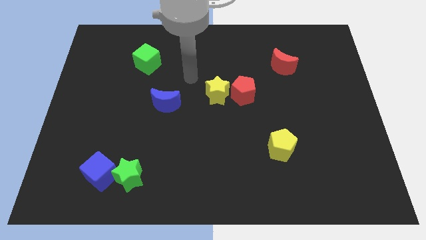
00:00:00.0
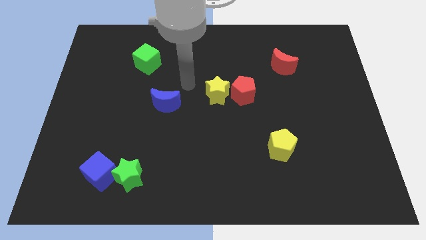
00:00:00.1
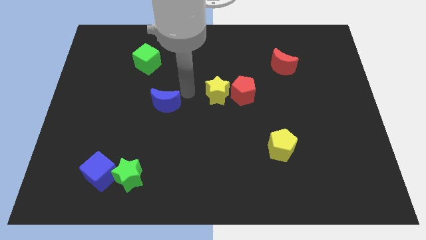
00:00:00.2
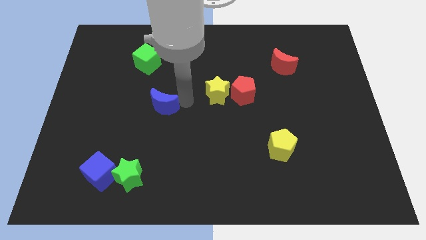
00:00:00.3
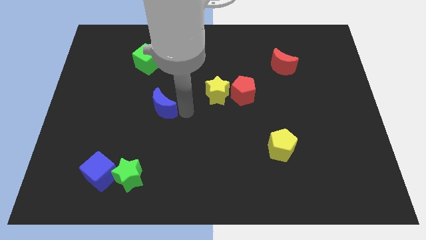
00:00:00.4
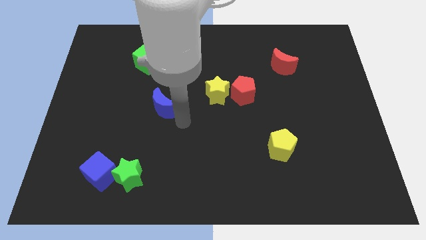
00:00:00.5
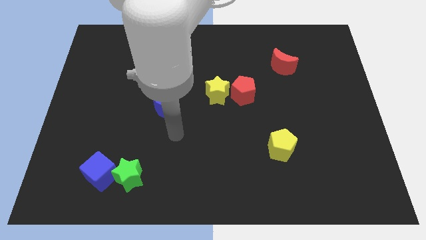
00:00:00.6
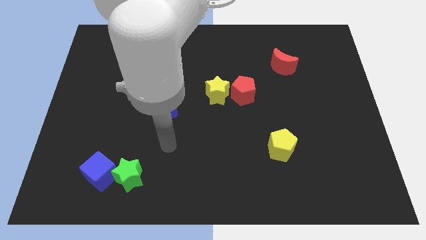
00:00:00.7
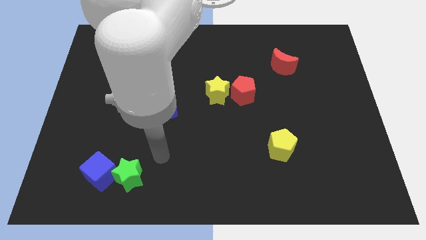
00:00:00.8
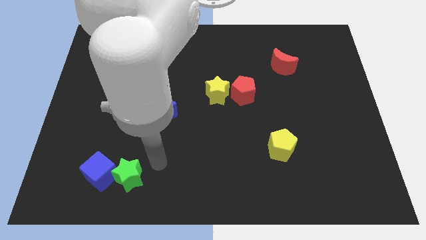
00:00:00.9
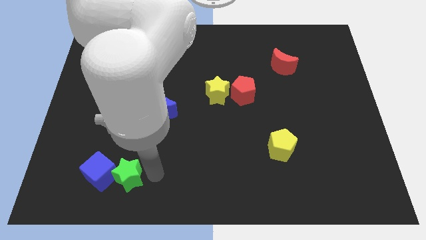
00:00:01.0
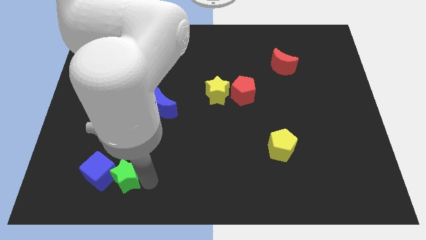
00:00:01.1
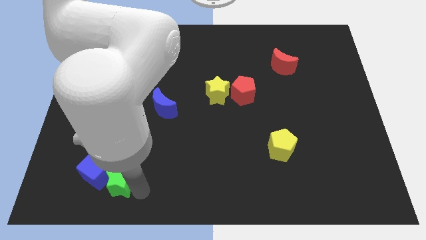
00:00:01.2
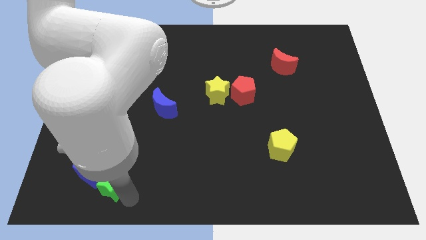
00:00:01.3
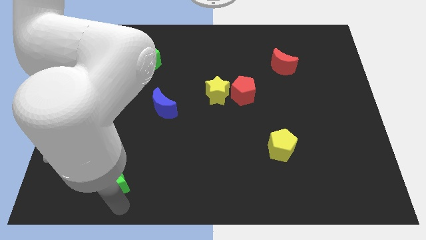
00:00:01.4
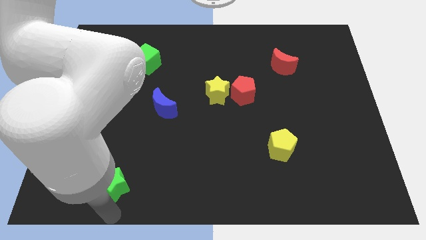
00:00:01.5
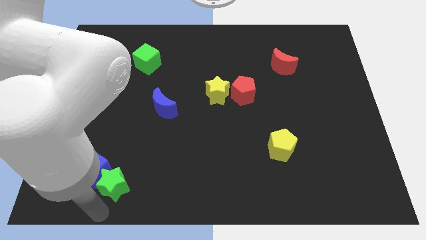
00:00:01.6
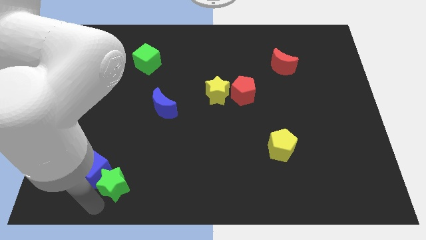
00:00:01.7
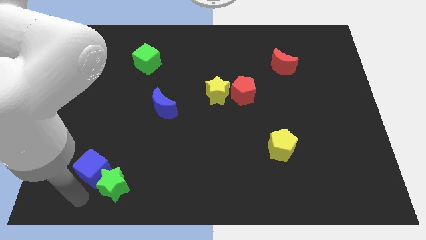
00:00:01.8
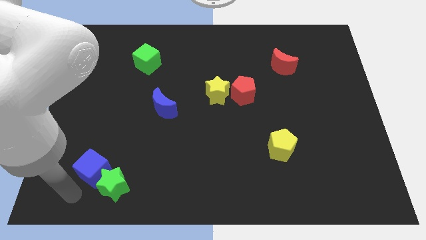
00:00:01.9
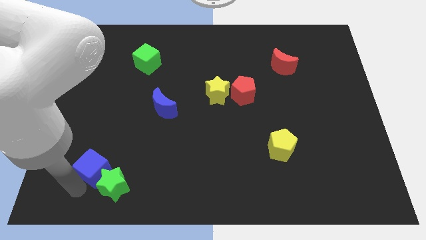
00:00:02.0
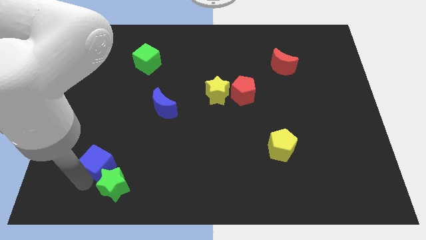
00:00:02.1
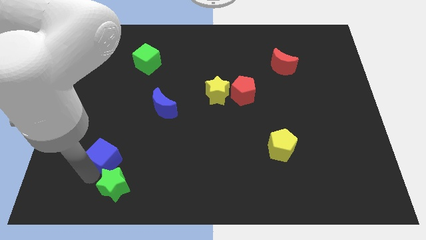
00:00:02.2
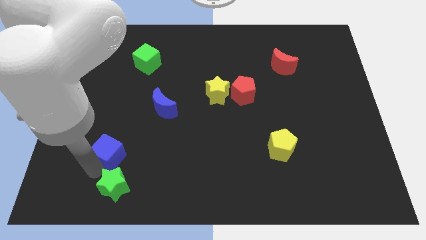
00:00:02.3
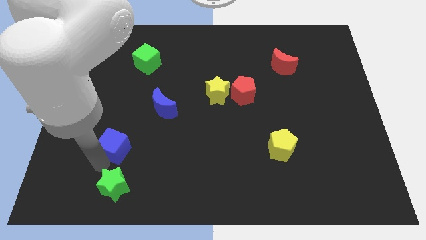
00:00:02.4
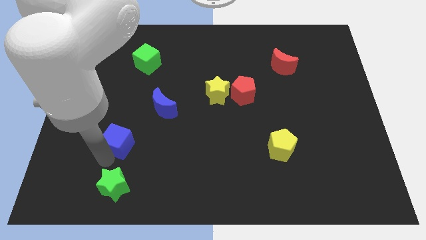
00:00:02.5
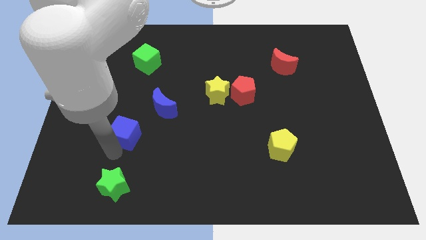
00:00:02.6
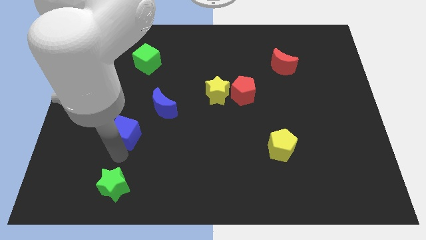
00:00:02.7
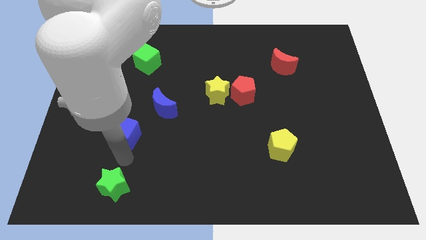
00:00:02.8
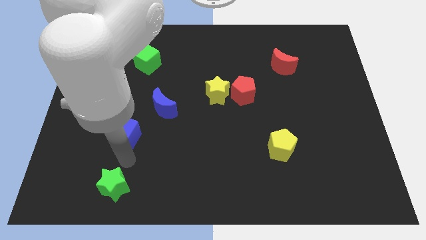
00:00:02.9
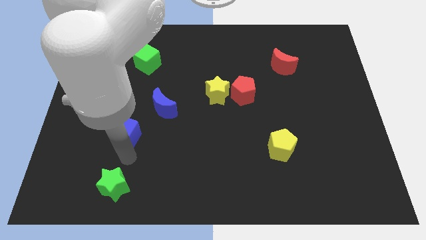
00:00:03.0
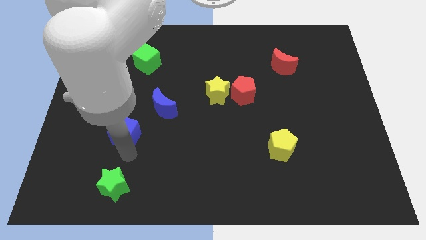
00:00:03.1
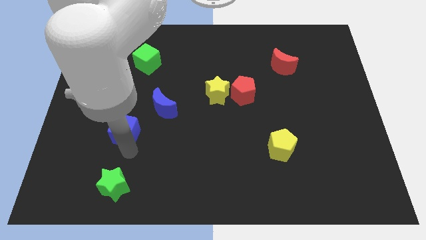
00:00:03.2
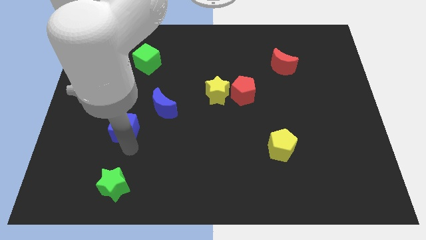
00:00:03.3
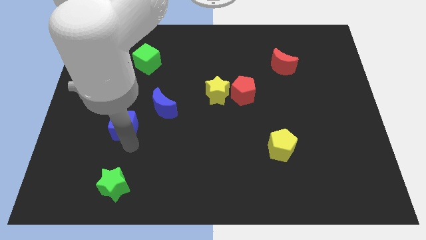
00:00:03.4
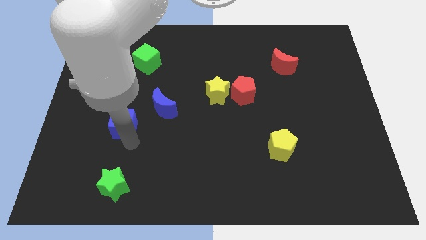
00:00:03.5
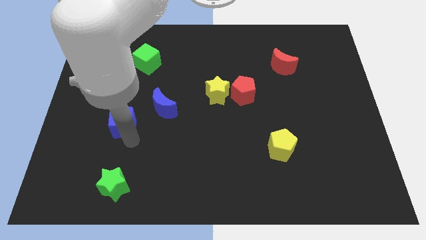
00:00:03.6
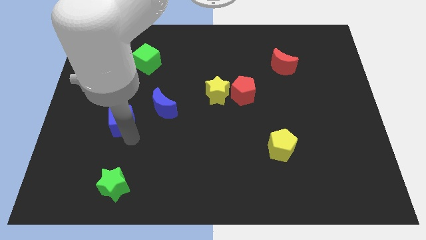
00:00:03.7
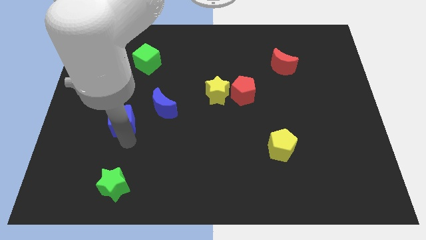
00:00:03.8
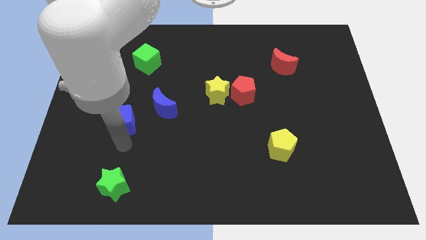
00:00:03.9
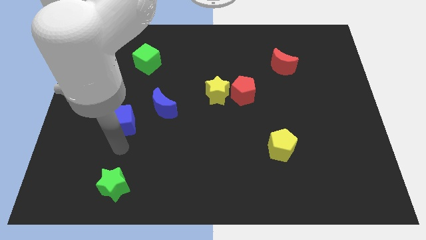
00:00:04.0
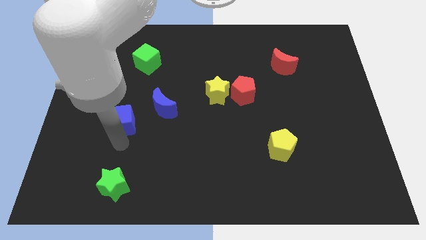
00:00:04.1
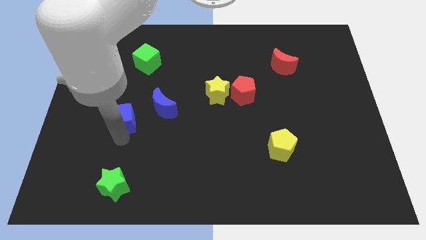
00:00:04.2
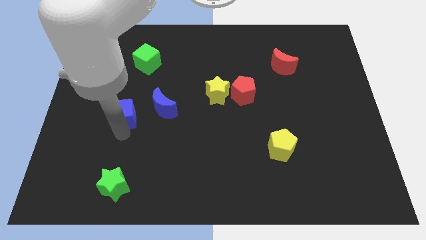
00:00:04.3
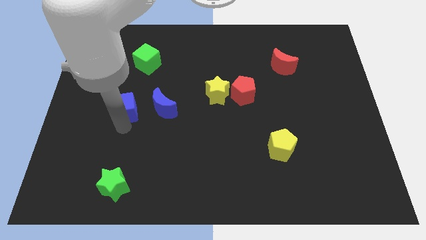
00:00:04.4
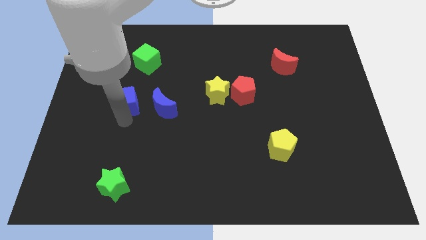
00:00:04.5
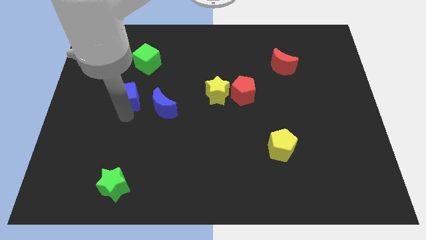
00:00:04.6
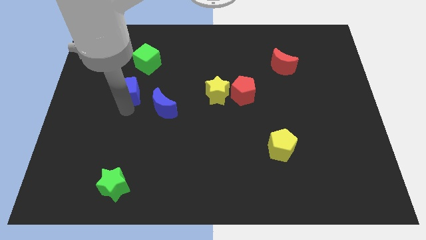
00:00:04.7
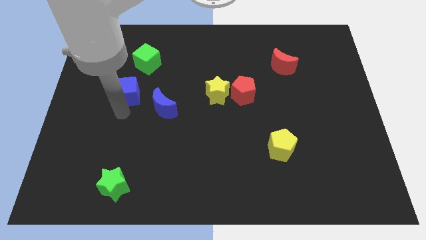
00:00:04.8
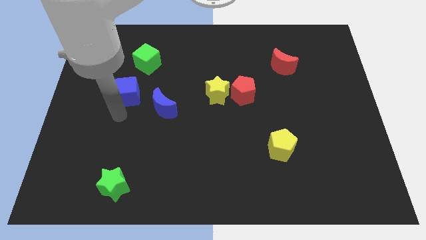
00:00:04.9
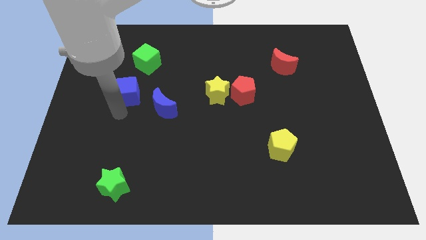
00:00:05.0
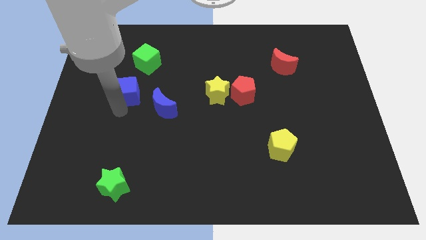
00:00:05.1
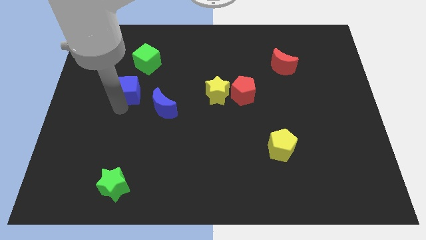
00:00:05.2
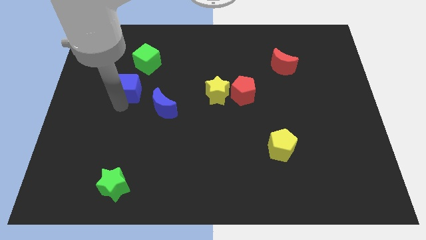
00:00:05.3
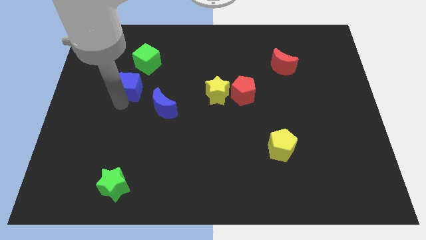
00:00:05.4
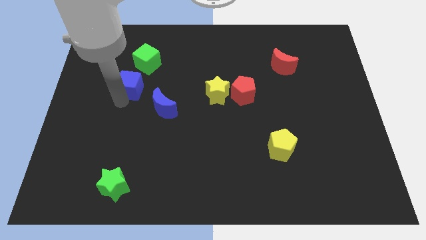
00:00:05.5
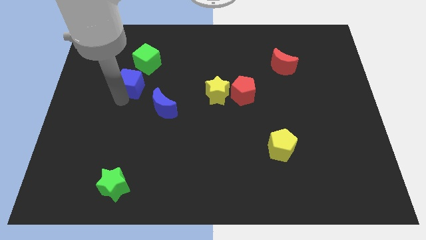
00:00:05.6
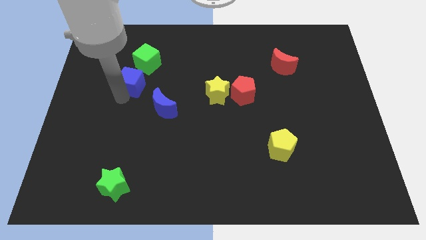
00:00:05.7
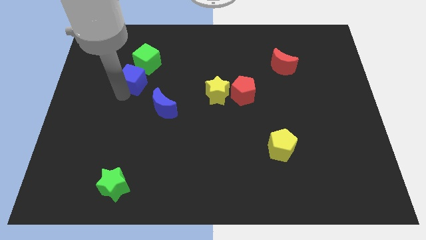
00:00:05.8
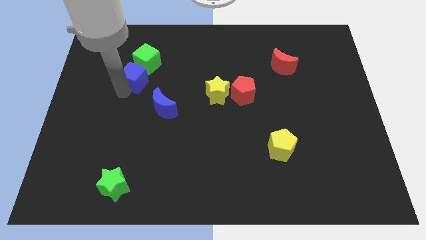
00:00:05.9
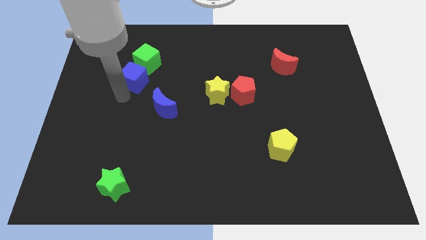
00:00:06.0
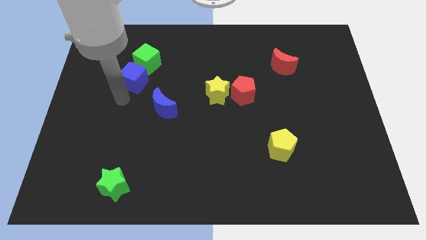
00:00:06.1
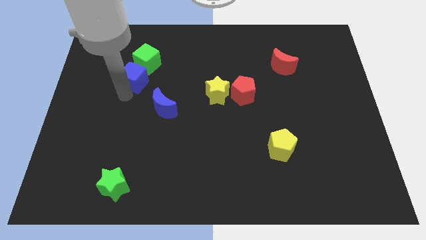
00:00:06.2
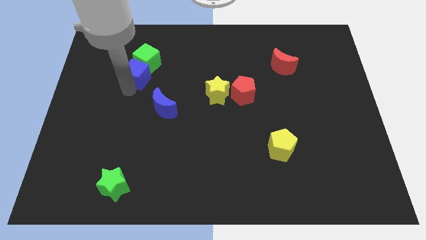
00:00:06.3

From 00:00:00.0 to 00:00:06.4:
move the blue cube close to the green cube

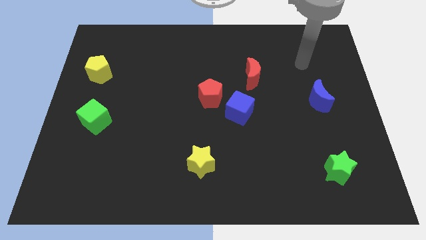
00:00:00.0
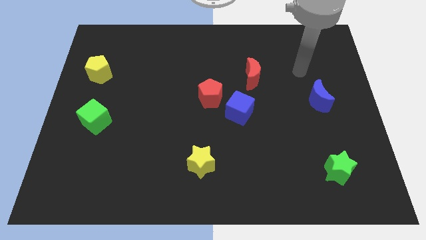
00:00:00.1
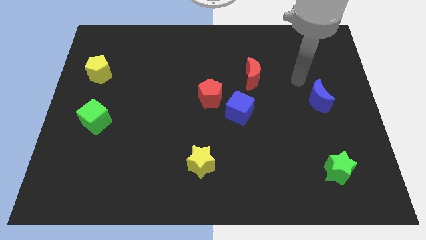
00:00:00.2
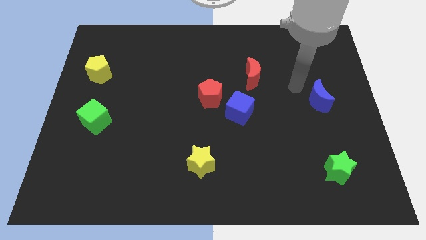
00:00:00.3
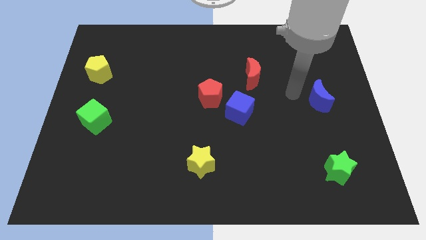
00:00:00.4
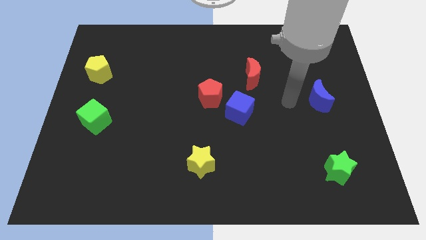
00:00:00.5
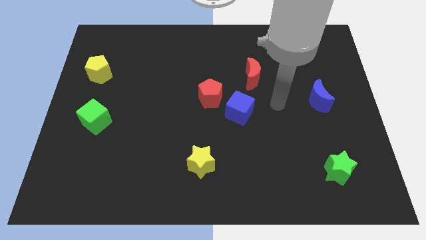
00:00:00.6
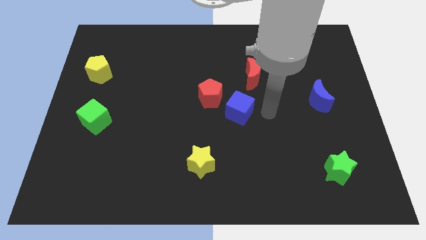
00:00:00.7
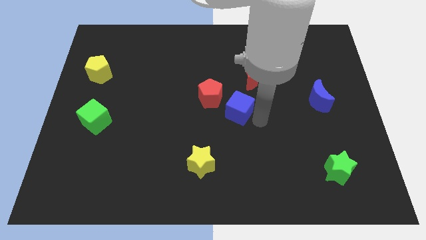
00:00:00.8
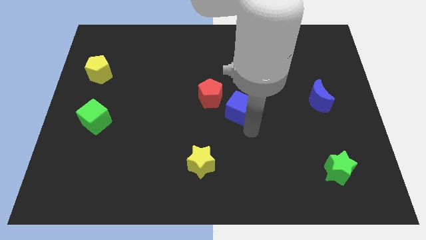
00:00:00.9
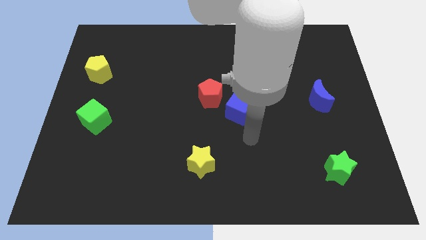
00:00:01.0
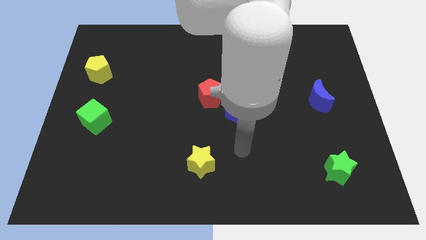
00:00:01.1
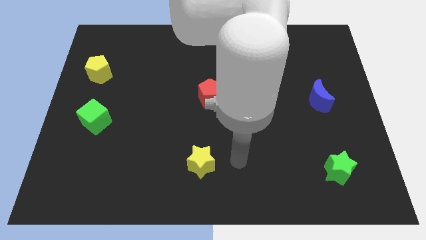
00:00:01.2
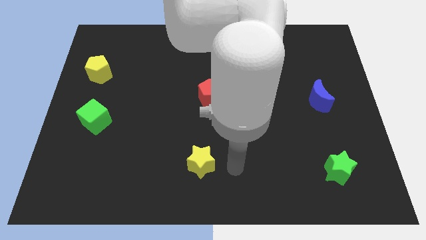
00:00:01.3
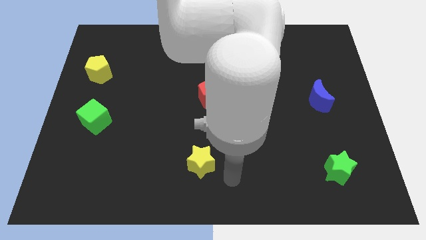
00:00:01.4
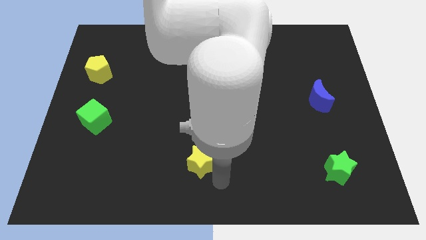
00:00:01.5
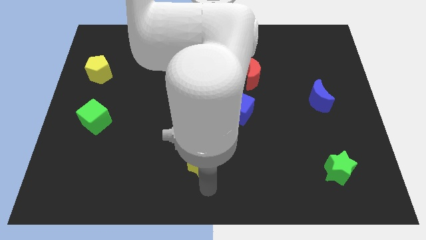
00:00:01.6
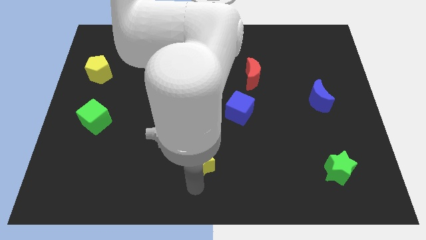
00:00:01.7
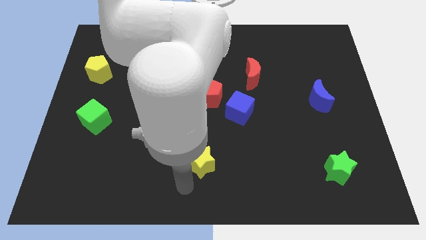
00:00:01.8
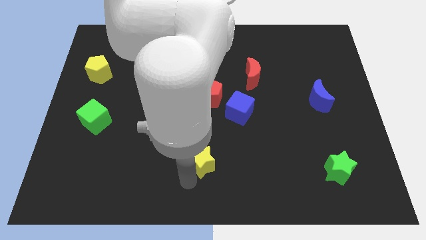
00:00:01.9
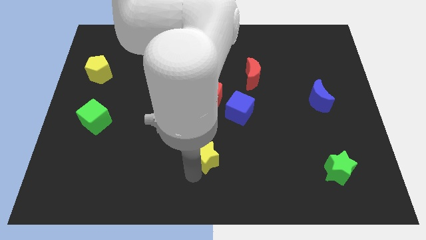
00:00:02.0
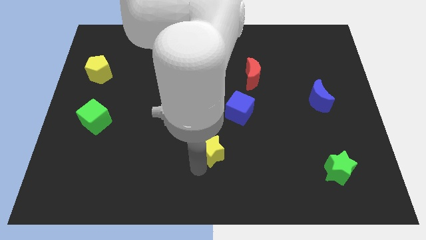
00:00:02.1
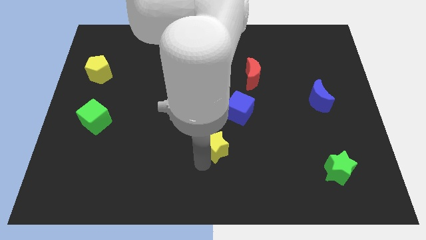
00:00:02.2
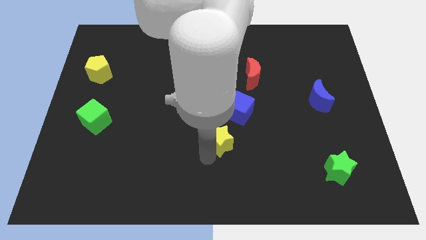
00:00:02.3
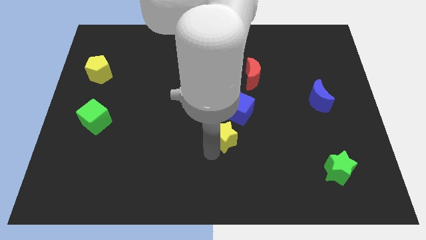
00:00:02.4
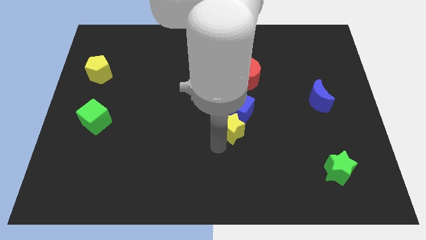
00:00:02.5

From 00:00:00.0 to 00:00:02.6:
put the yellow star to the blue cube
